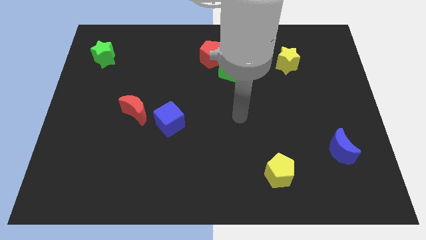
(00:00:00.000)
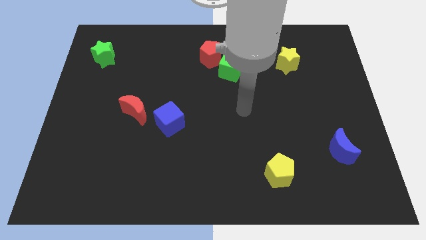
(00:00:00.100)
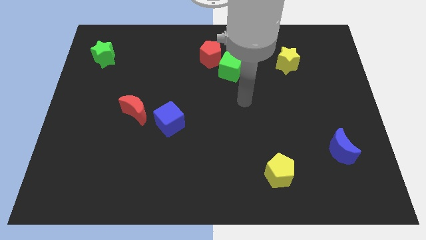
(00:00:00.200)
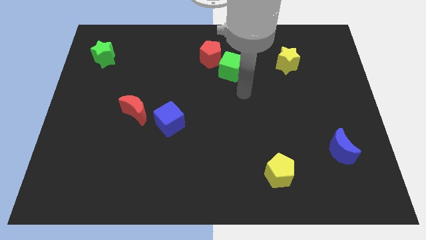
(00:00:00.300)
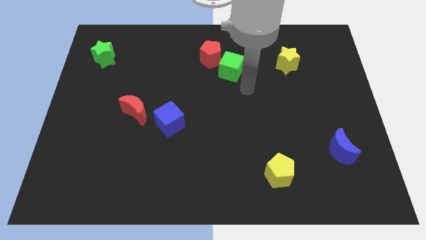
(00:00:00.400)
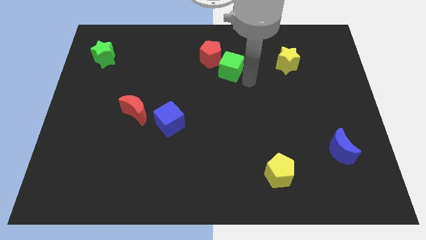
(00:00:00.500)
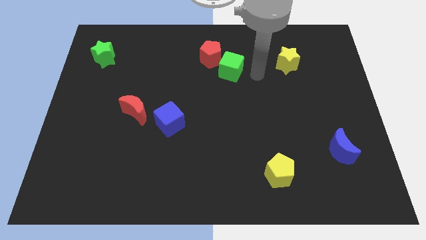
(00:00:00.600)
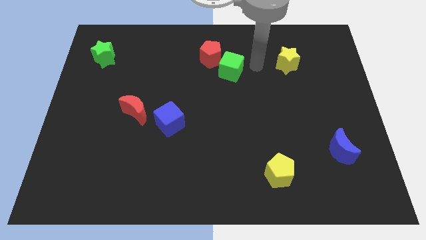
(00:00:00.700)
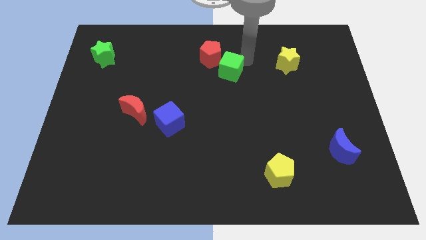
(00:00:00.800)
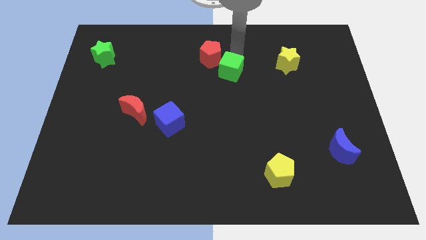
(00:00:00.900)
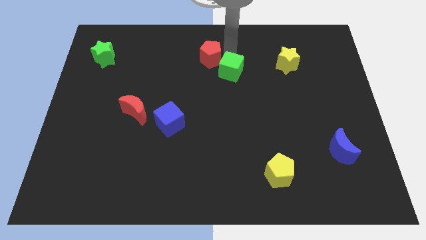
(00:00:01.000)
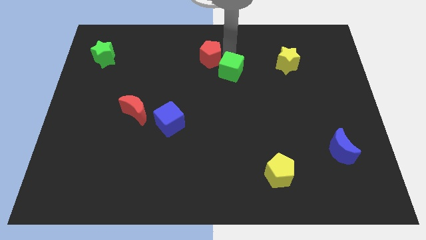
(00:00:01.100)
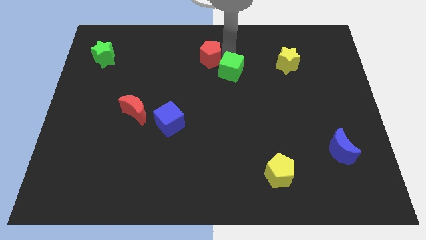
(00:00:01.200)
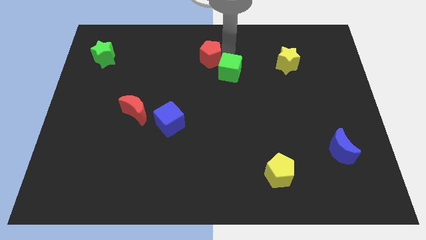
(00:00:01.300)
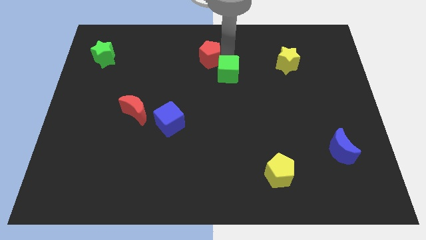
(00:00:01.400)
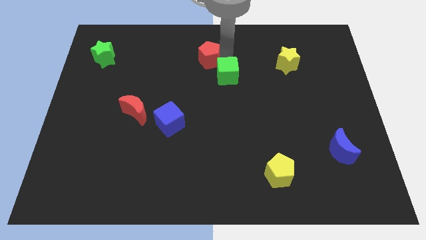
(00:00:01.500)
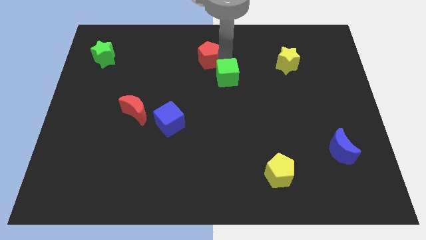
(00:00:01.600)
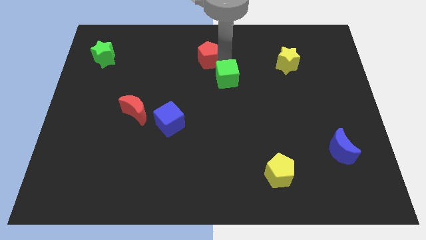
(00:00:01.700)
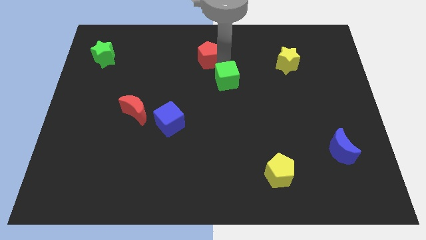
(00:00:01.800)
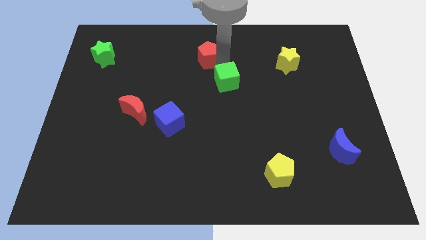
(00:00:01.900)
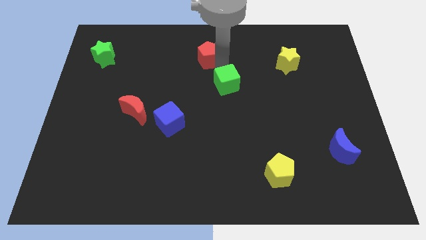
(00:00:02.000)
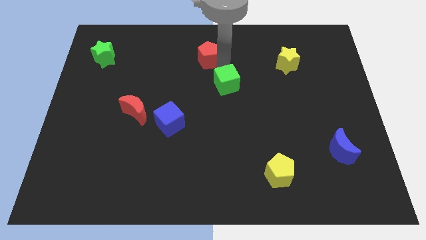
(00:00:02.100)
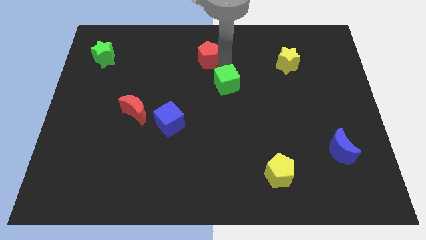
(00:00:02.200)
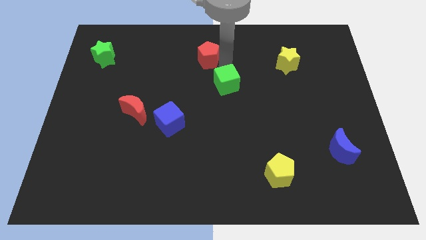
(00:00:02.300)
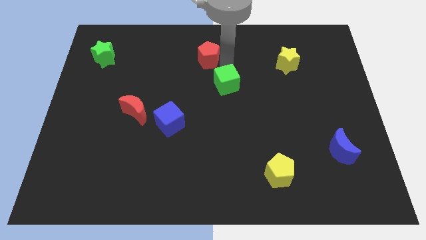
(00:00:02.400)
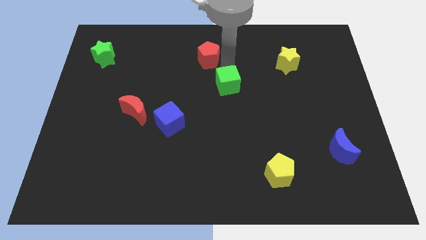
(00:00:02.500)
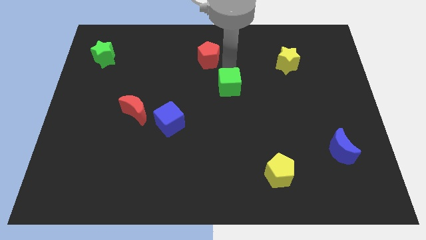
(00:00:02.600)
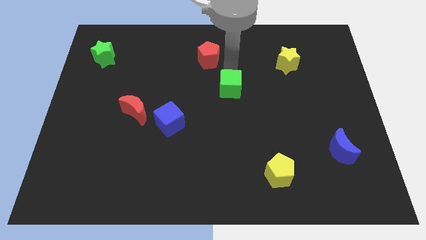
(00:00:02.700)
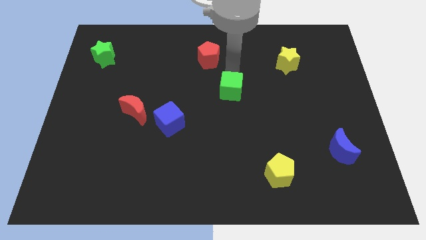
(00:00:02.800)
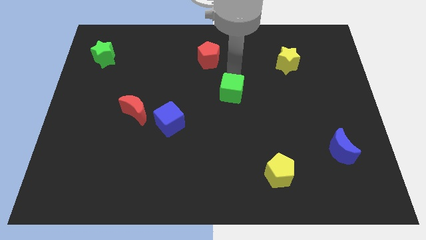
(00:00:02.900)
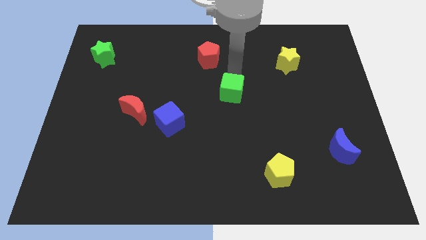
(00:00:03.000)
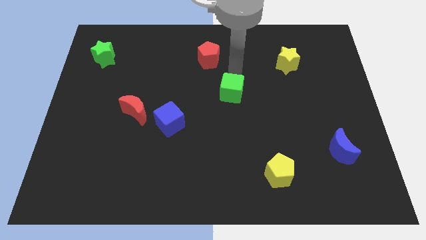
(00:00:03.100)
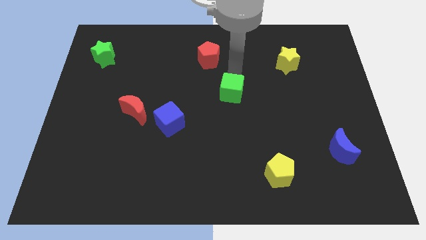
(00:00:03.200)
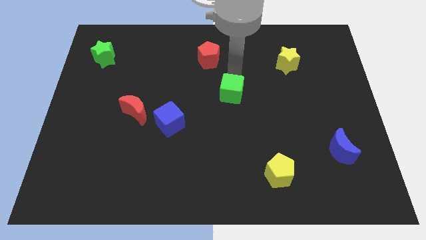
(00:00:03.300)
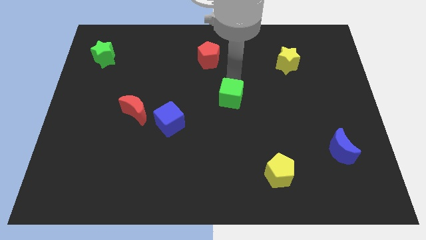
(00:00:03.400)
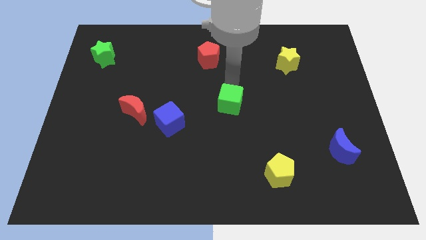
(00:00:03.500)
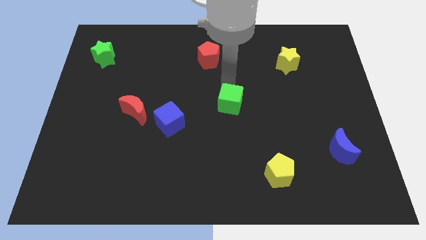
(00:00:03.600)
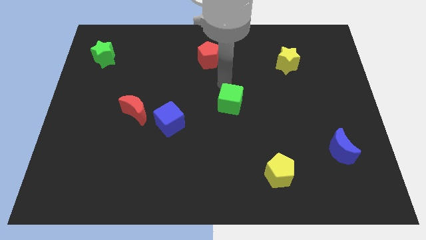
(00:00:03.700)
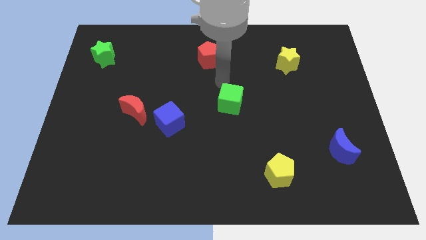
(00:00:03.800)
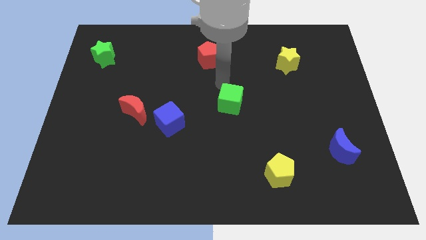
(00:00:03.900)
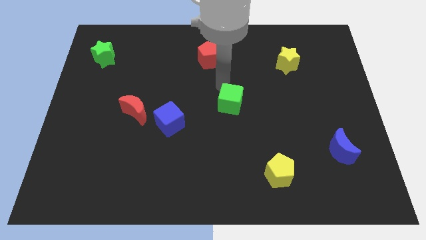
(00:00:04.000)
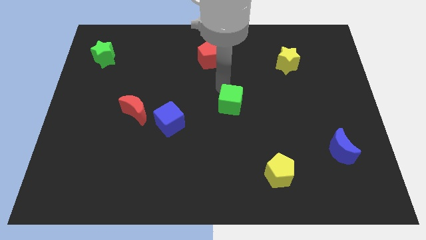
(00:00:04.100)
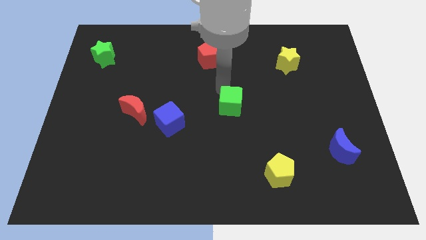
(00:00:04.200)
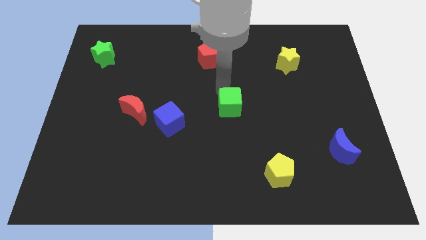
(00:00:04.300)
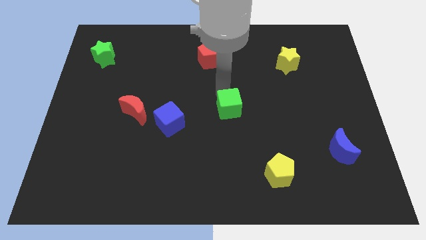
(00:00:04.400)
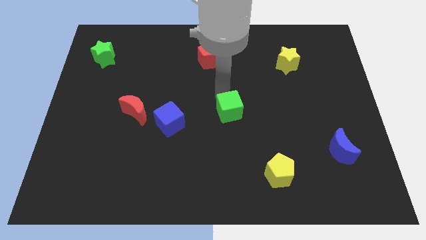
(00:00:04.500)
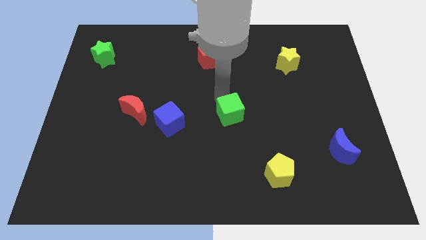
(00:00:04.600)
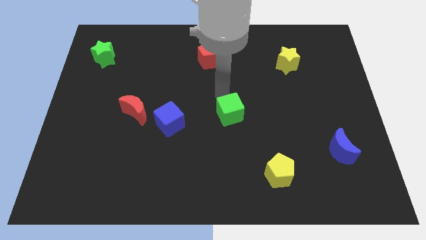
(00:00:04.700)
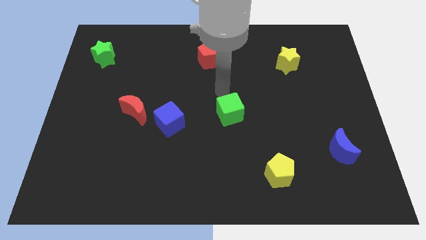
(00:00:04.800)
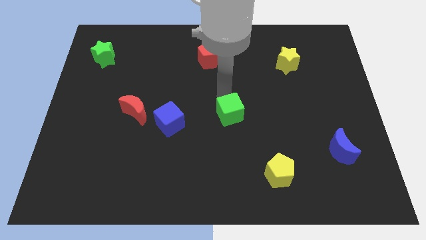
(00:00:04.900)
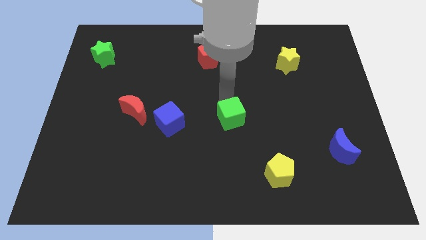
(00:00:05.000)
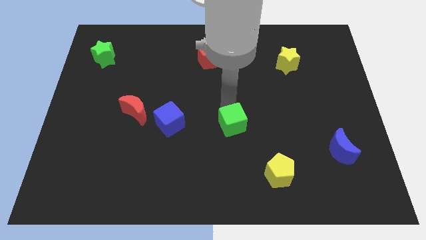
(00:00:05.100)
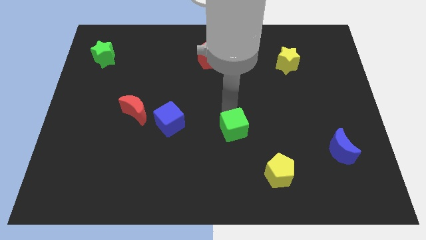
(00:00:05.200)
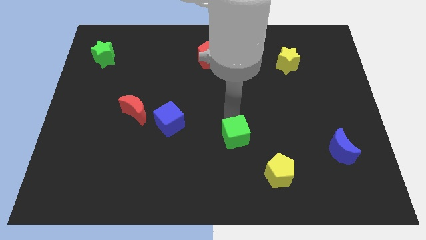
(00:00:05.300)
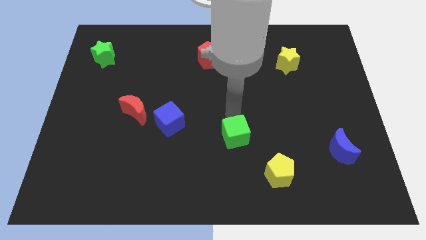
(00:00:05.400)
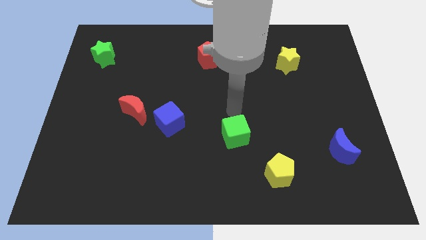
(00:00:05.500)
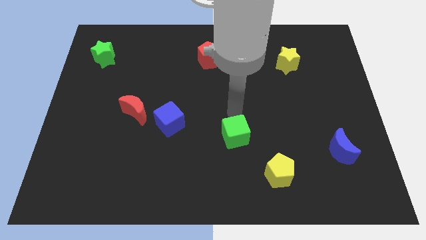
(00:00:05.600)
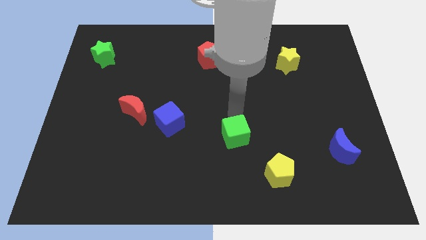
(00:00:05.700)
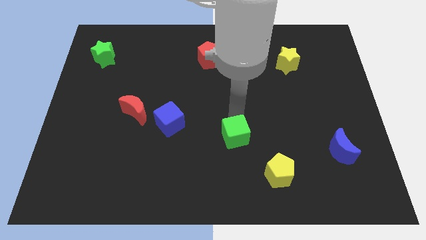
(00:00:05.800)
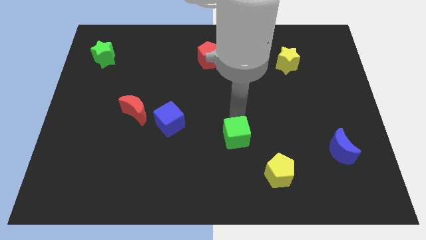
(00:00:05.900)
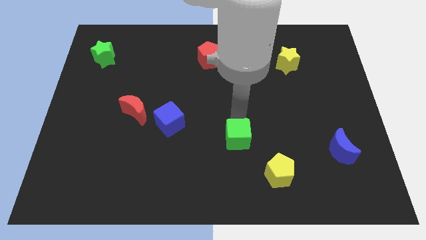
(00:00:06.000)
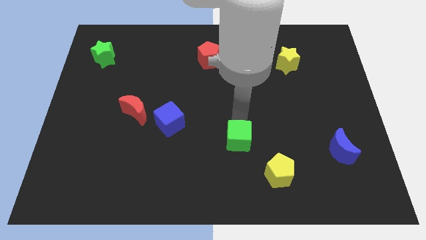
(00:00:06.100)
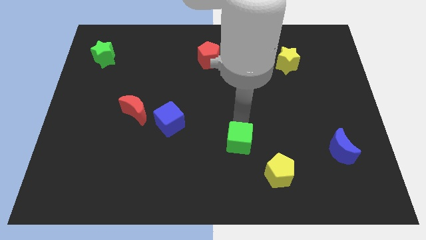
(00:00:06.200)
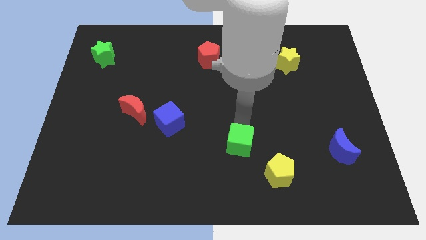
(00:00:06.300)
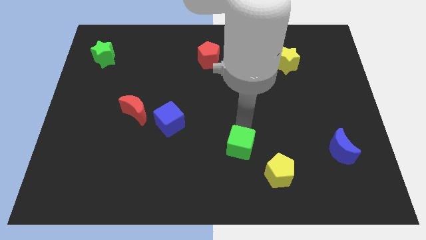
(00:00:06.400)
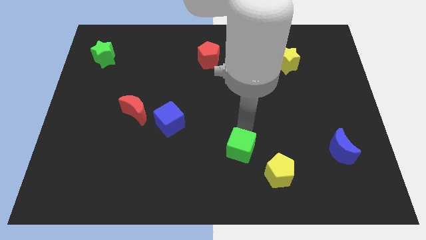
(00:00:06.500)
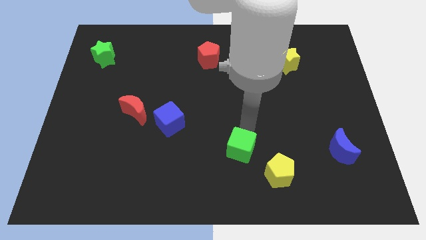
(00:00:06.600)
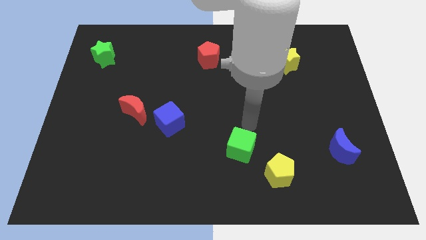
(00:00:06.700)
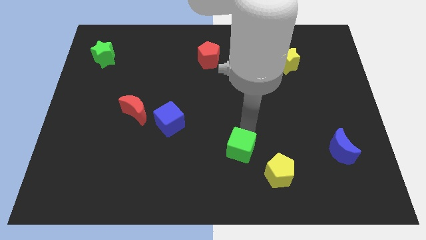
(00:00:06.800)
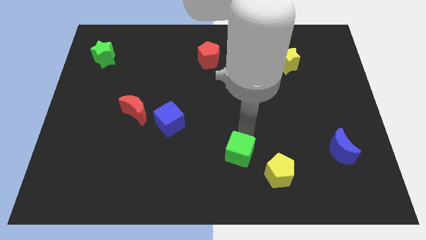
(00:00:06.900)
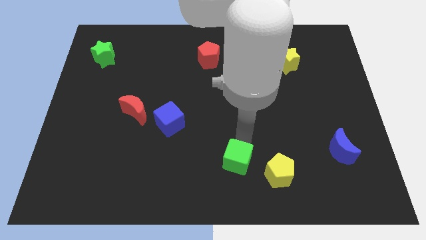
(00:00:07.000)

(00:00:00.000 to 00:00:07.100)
push the green cube to the bottom side
